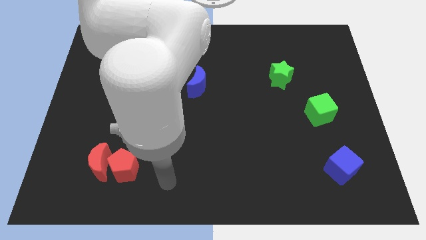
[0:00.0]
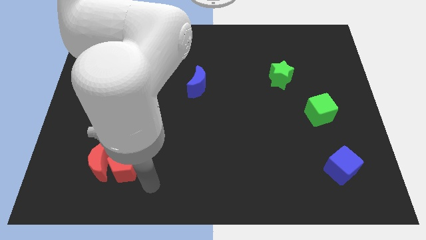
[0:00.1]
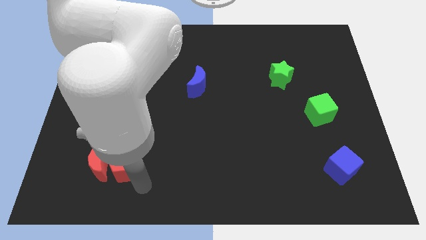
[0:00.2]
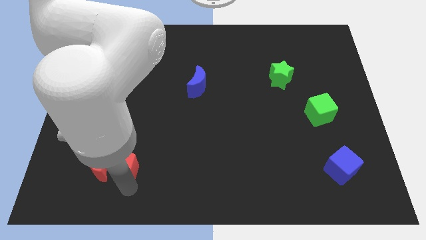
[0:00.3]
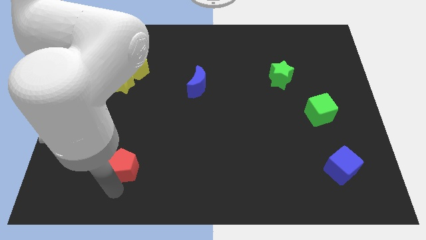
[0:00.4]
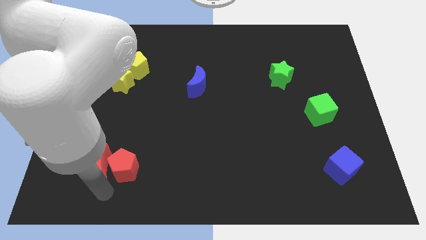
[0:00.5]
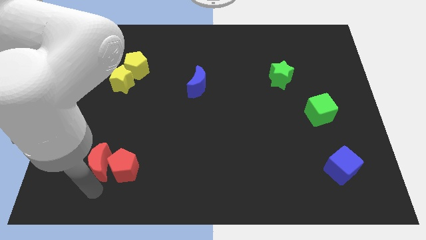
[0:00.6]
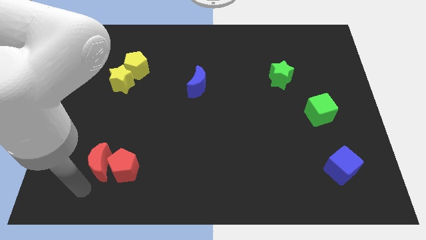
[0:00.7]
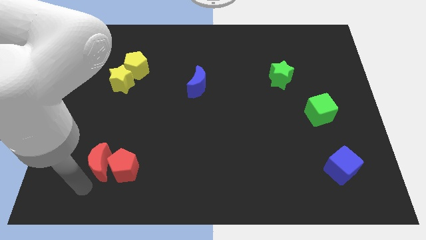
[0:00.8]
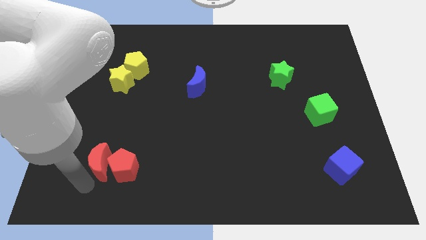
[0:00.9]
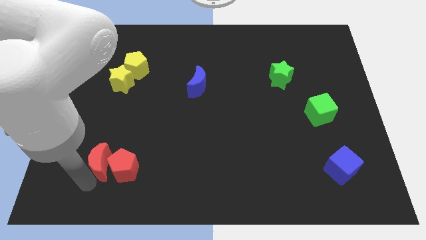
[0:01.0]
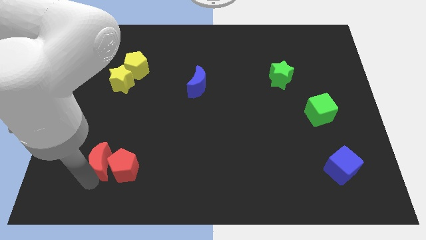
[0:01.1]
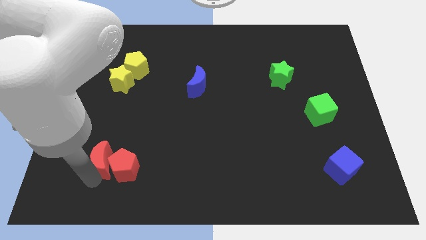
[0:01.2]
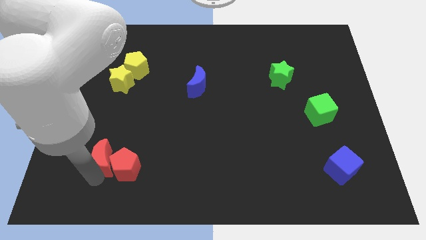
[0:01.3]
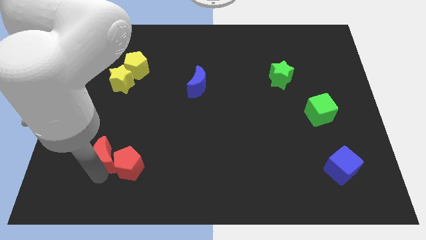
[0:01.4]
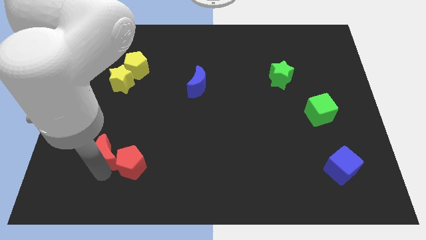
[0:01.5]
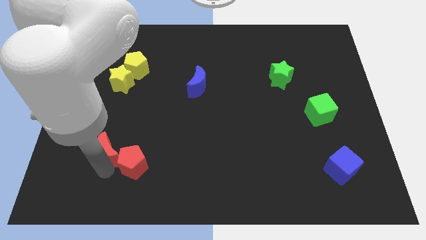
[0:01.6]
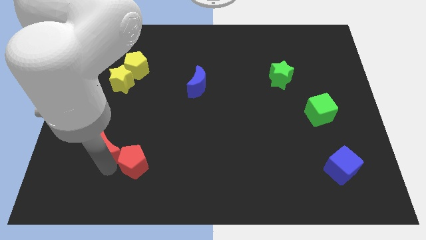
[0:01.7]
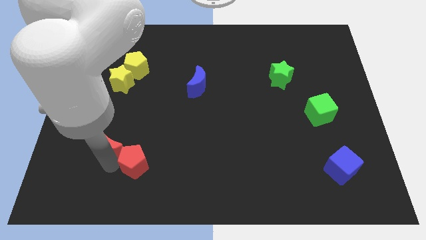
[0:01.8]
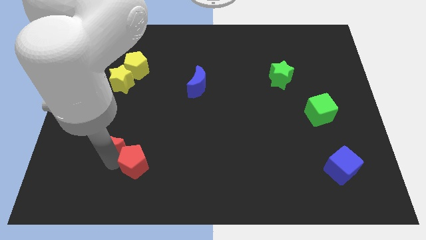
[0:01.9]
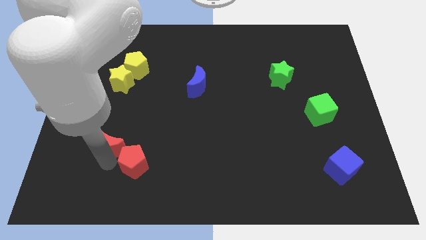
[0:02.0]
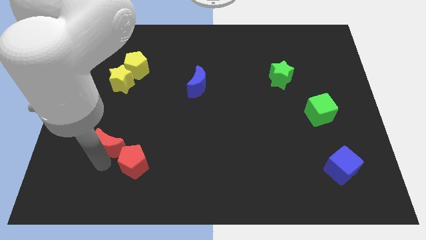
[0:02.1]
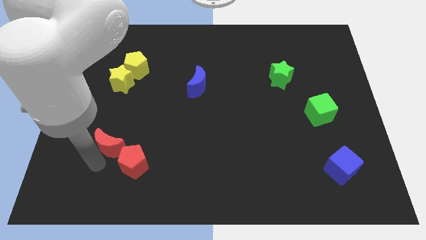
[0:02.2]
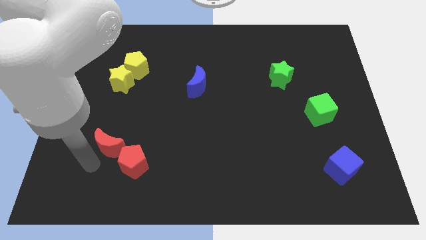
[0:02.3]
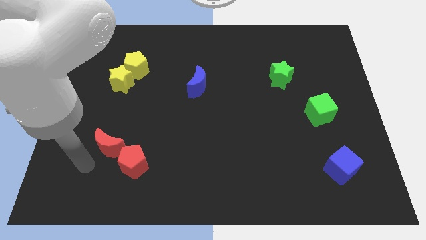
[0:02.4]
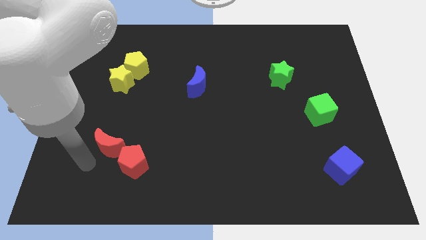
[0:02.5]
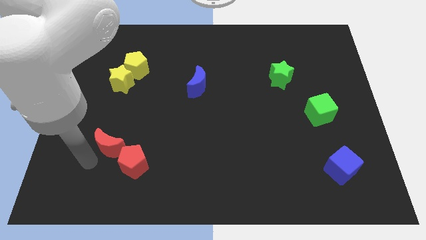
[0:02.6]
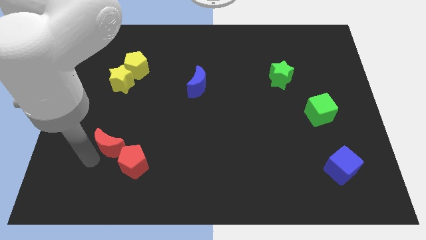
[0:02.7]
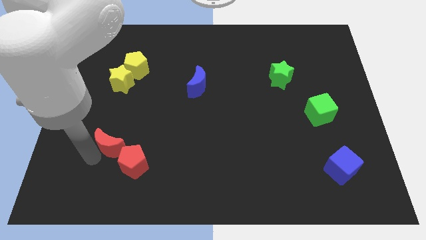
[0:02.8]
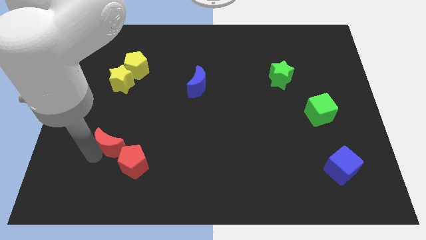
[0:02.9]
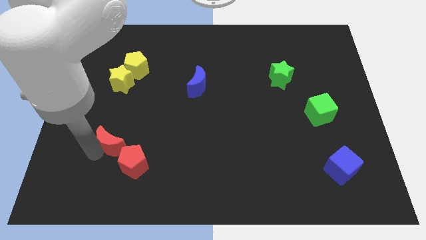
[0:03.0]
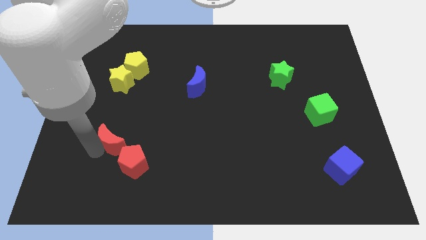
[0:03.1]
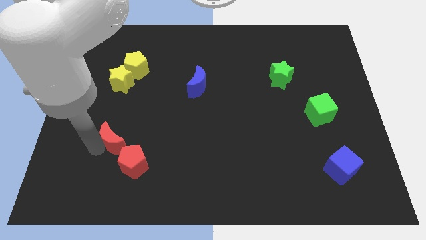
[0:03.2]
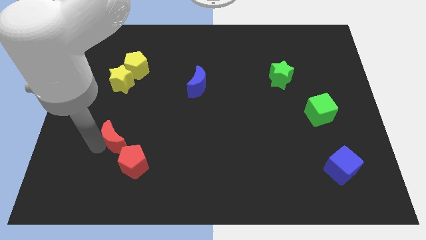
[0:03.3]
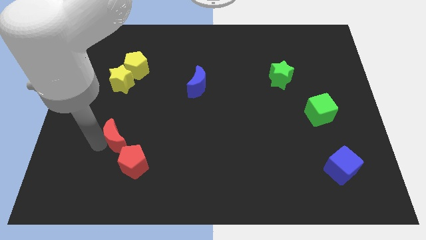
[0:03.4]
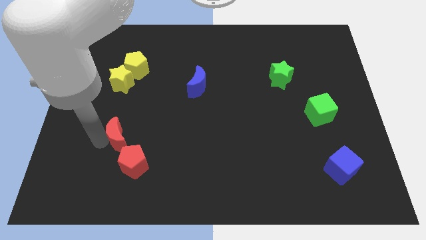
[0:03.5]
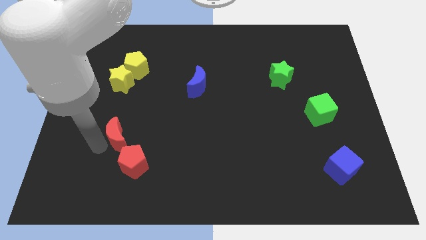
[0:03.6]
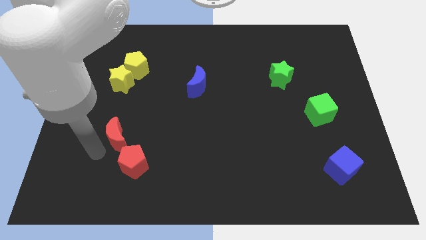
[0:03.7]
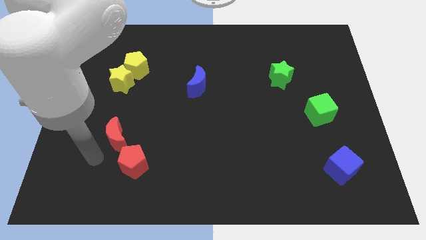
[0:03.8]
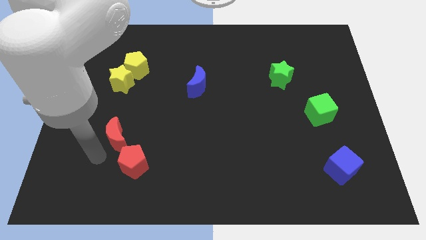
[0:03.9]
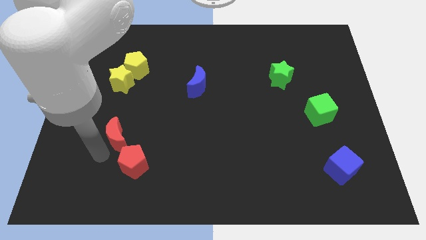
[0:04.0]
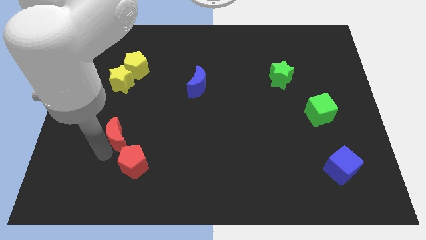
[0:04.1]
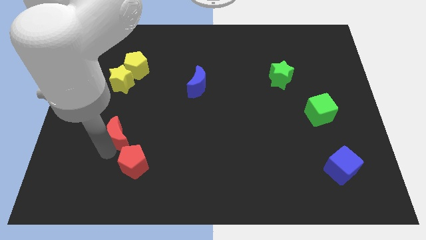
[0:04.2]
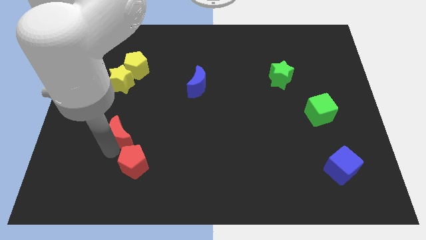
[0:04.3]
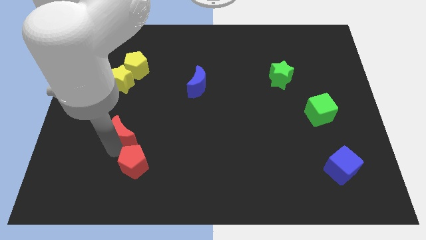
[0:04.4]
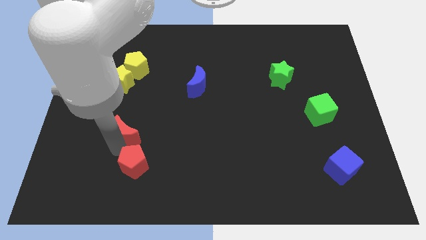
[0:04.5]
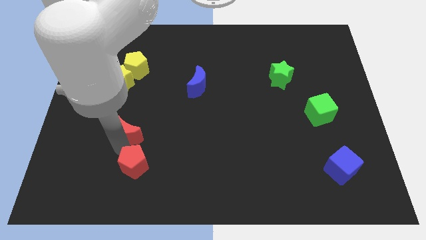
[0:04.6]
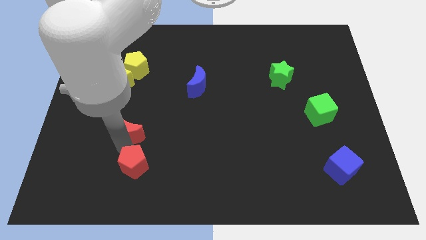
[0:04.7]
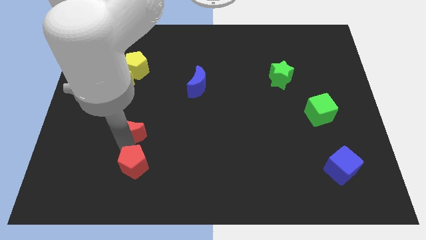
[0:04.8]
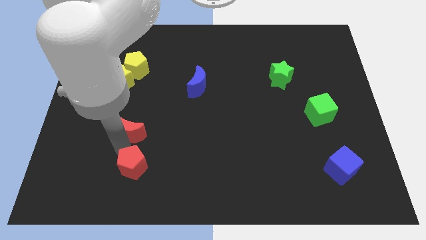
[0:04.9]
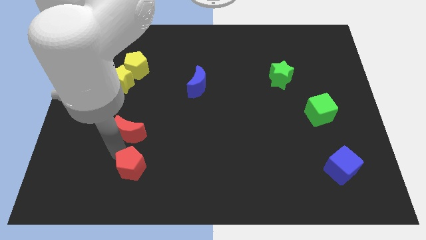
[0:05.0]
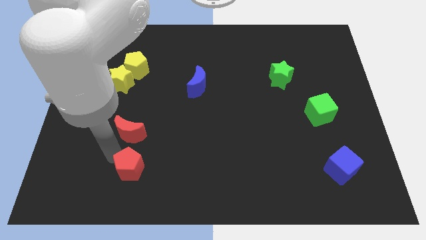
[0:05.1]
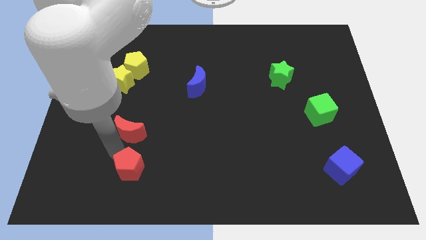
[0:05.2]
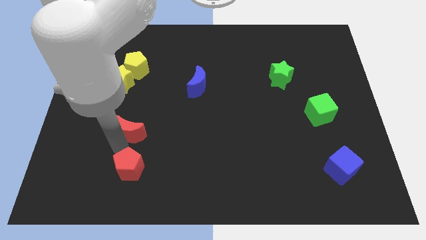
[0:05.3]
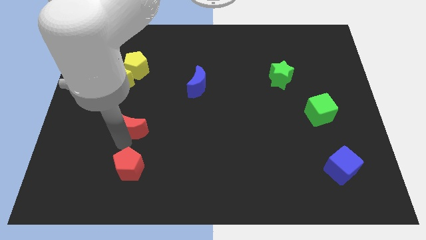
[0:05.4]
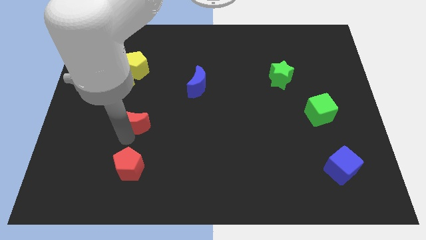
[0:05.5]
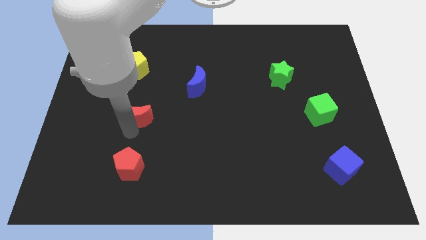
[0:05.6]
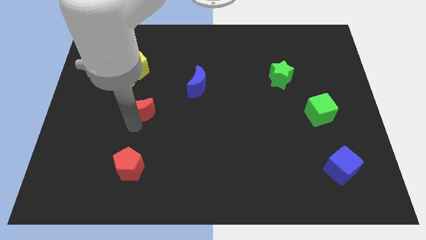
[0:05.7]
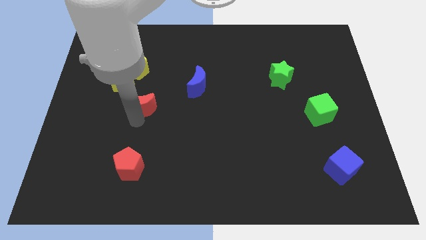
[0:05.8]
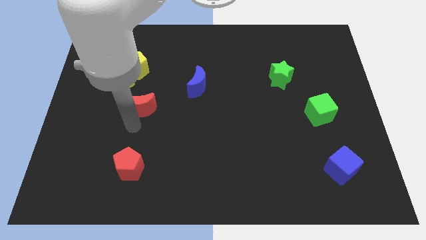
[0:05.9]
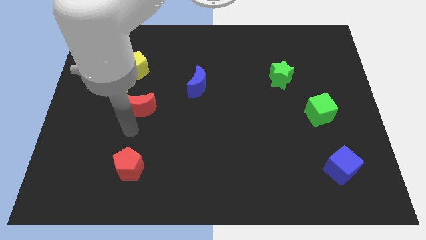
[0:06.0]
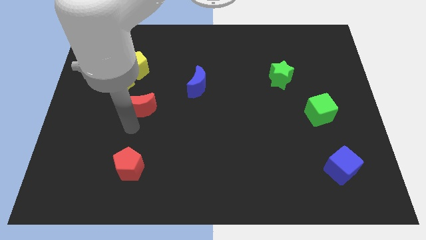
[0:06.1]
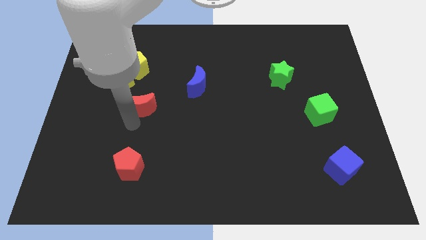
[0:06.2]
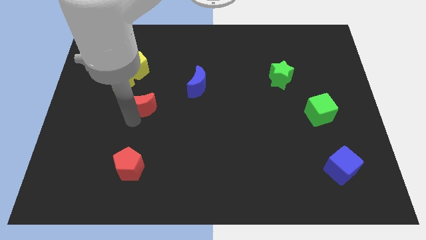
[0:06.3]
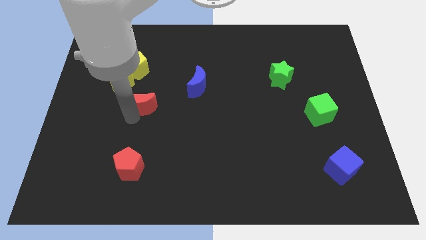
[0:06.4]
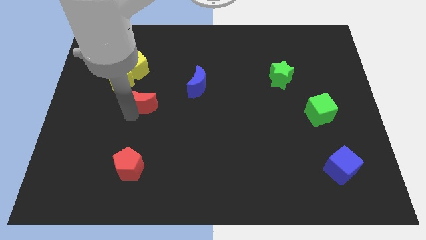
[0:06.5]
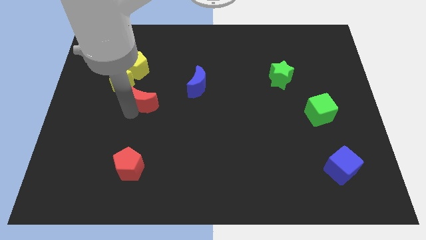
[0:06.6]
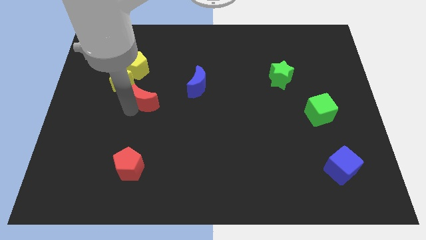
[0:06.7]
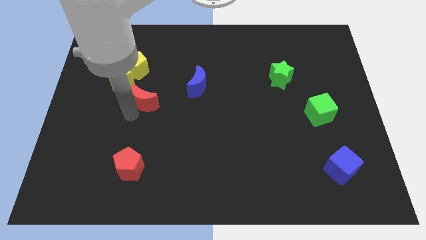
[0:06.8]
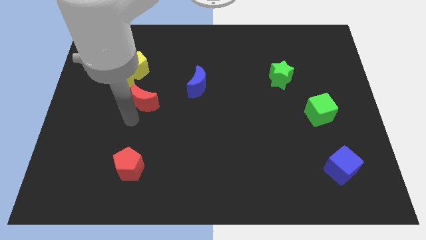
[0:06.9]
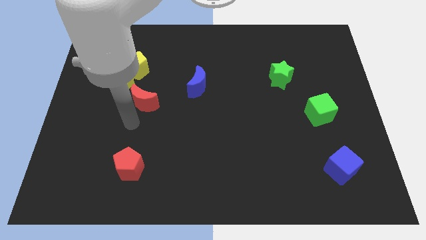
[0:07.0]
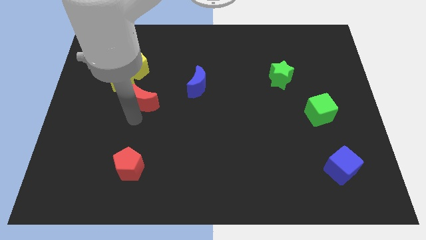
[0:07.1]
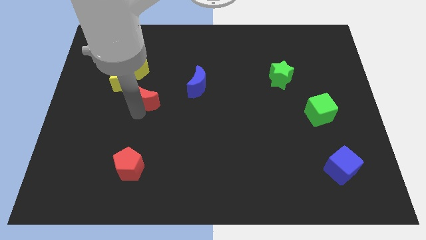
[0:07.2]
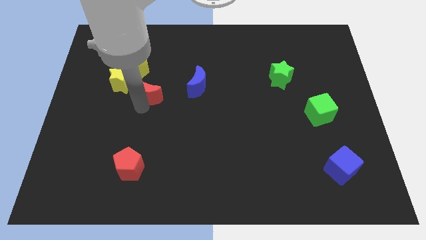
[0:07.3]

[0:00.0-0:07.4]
slide the red moon to the bottom right of the yellow pentagon
